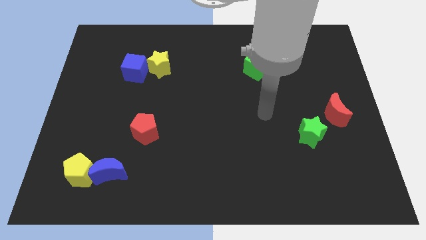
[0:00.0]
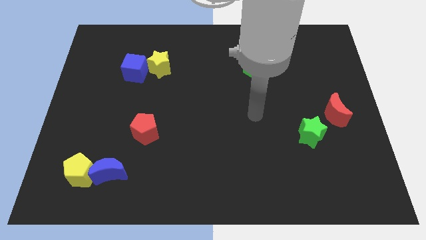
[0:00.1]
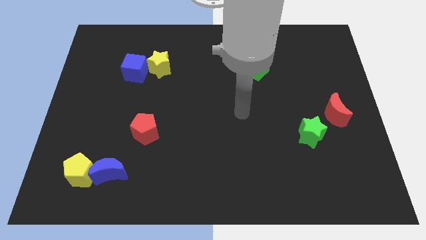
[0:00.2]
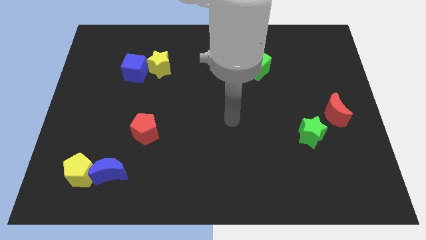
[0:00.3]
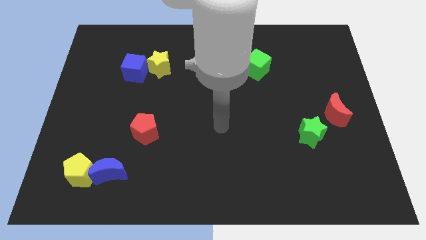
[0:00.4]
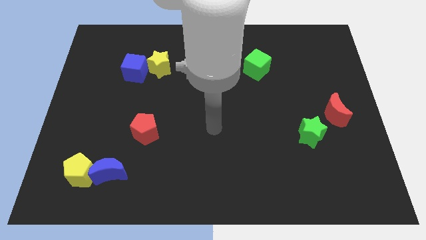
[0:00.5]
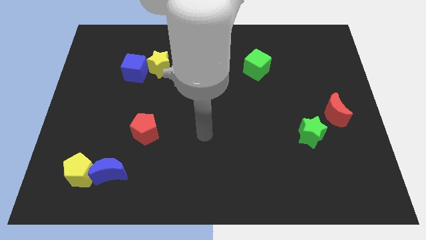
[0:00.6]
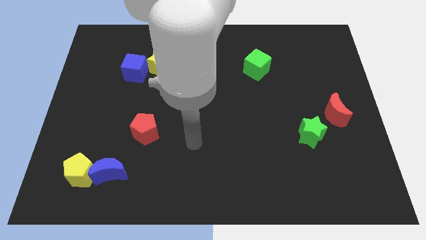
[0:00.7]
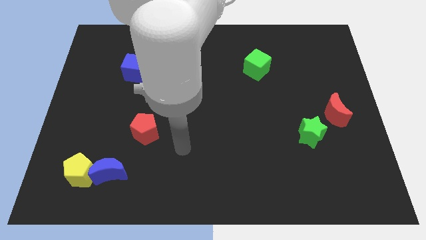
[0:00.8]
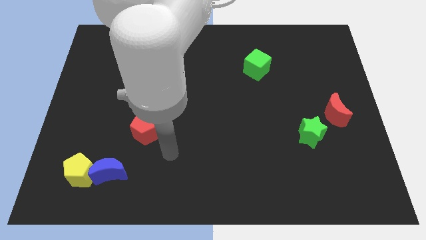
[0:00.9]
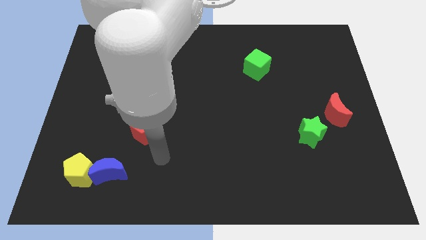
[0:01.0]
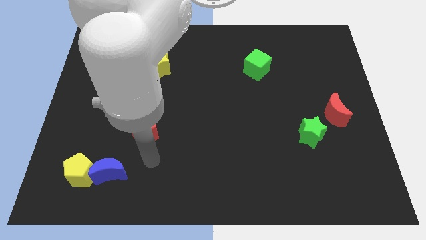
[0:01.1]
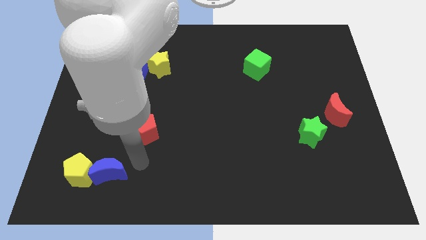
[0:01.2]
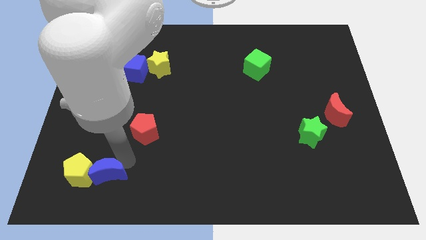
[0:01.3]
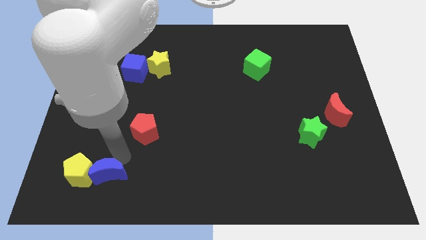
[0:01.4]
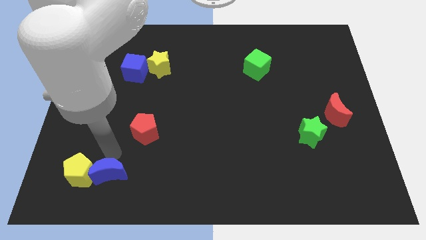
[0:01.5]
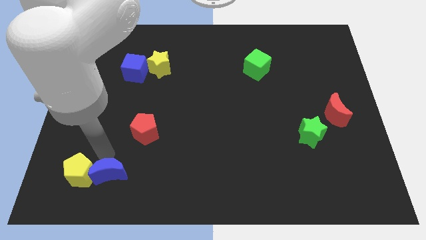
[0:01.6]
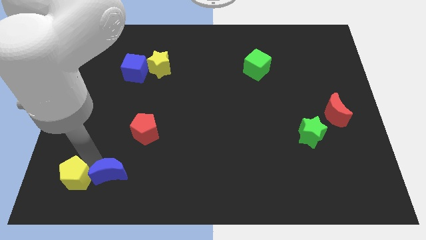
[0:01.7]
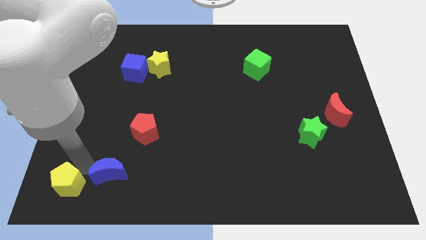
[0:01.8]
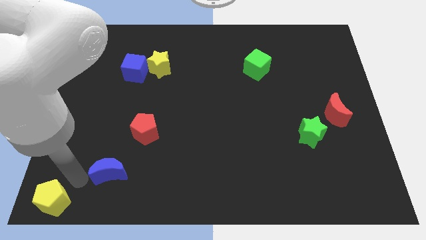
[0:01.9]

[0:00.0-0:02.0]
separate the blue moon from the yellow pentagon

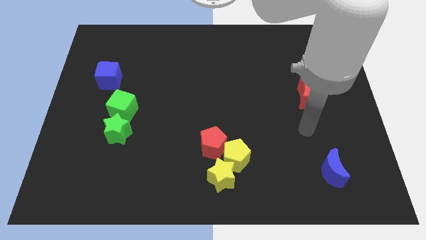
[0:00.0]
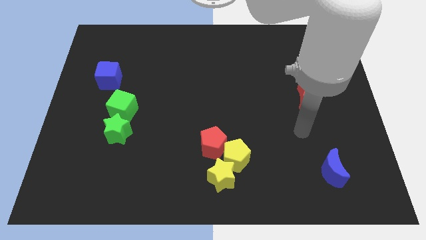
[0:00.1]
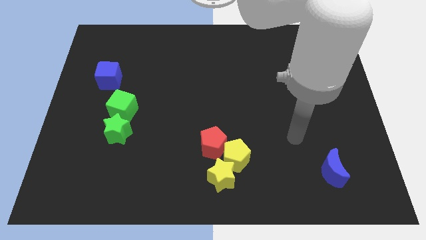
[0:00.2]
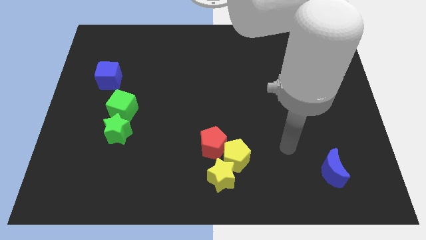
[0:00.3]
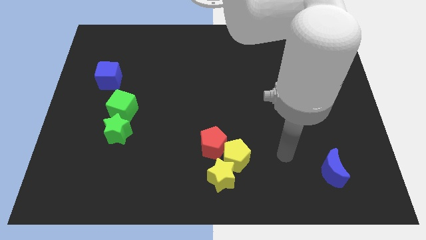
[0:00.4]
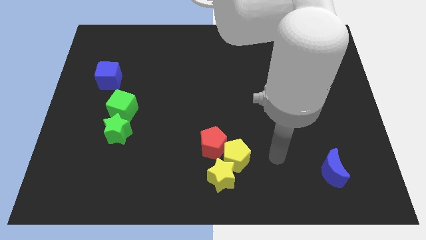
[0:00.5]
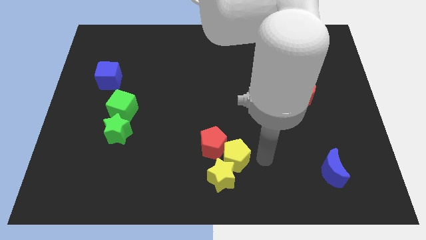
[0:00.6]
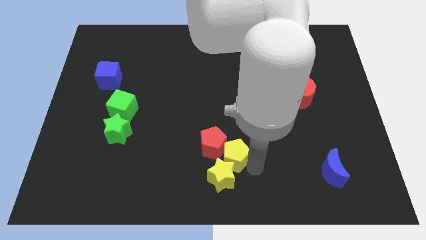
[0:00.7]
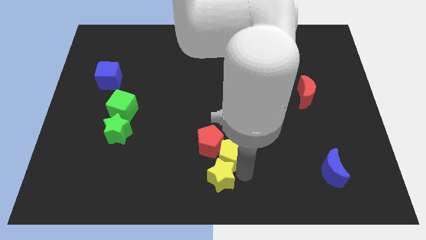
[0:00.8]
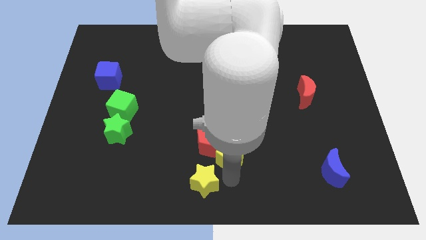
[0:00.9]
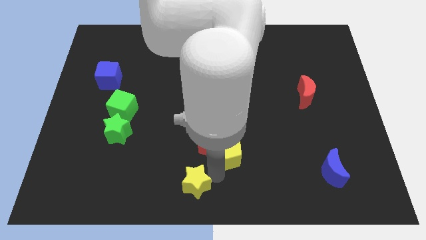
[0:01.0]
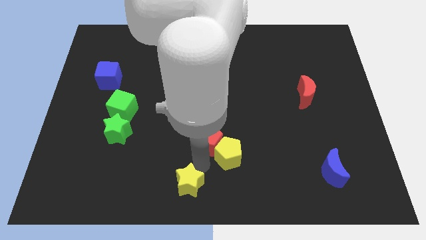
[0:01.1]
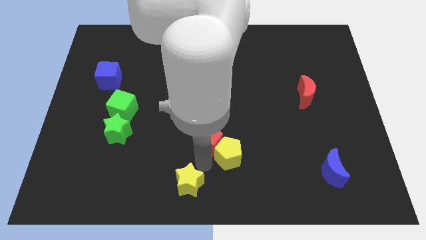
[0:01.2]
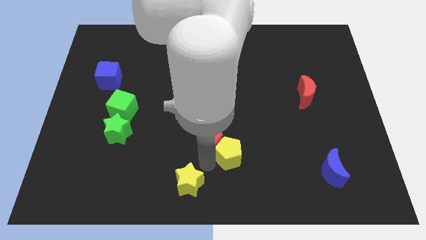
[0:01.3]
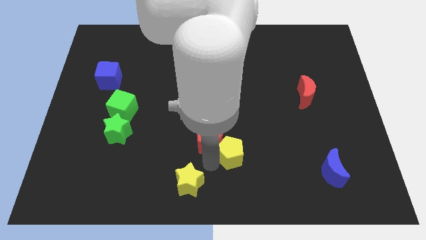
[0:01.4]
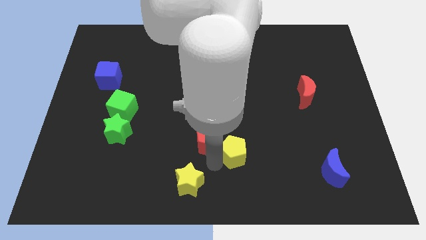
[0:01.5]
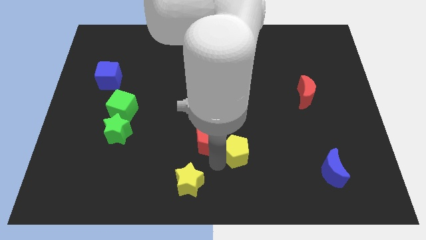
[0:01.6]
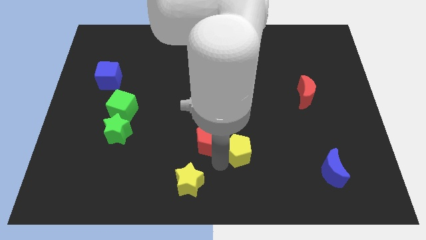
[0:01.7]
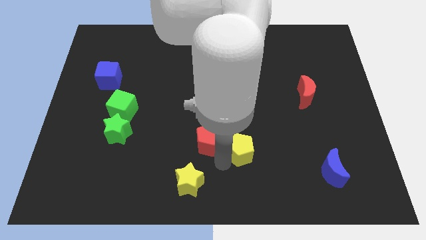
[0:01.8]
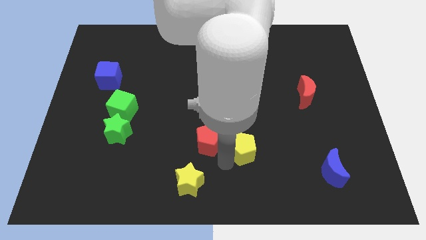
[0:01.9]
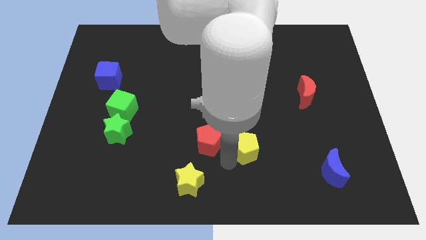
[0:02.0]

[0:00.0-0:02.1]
pull the yellow pentagon apart from the red pentagon and yellow star

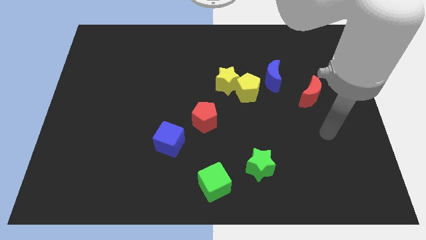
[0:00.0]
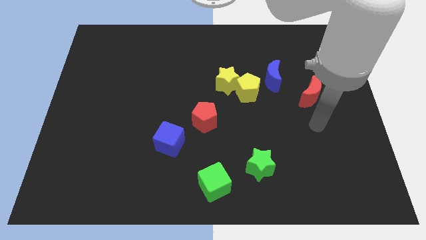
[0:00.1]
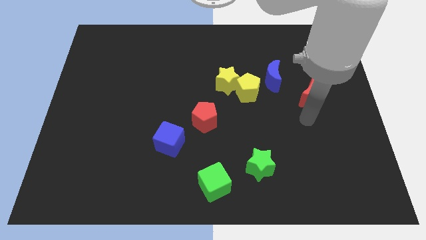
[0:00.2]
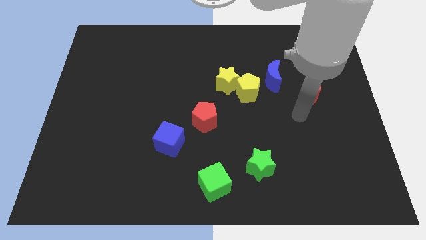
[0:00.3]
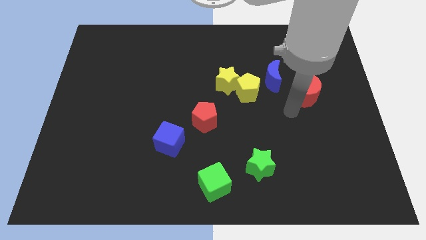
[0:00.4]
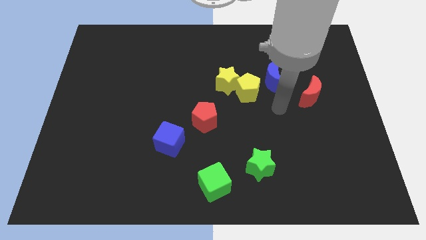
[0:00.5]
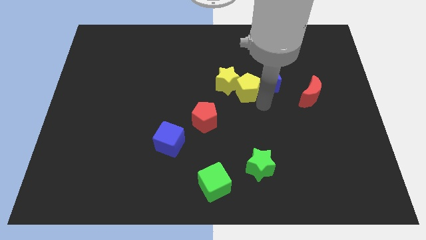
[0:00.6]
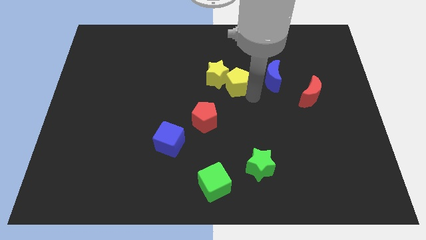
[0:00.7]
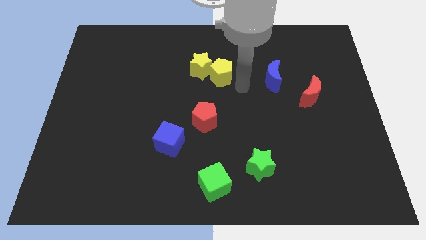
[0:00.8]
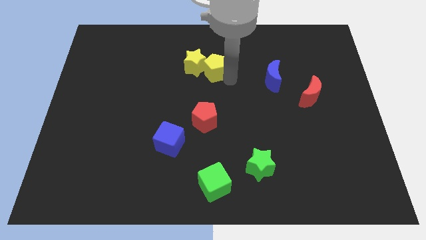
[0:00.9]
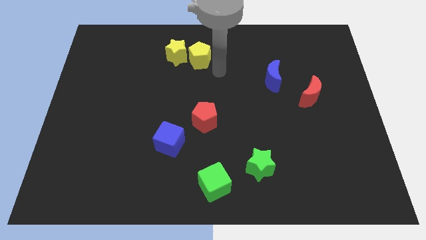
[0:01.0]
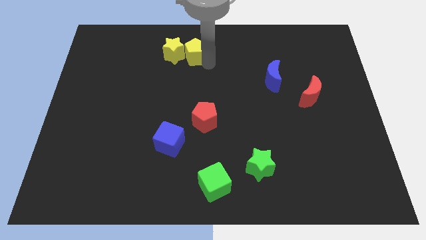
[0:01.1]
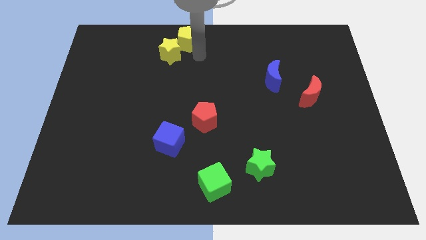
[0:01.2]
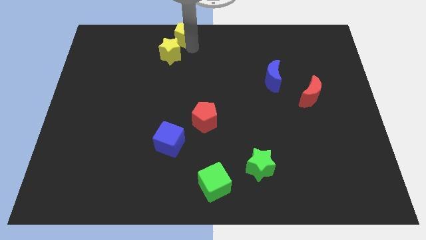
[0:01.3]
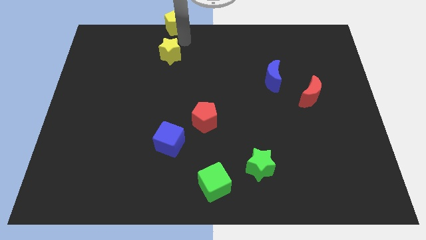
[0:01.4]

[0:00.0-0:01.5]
move the yellow star away from the yellow pentagon

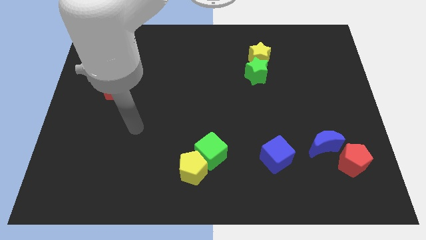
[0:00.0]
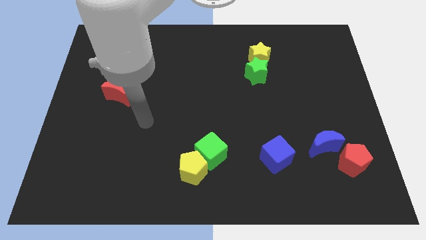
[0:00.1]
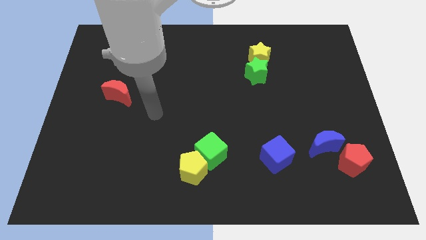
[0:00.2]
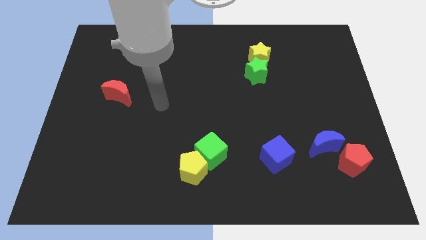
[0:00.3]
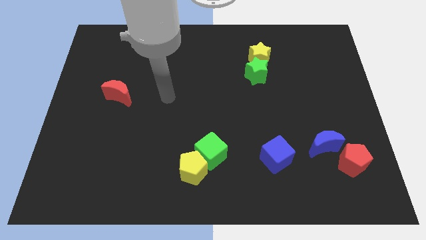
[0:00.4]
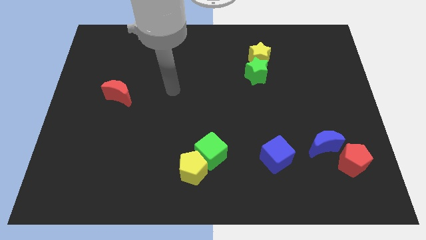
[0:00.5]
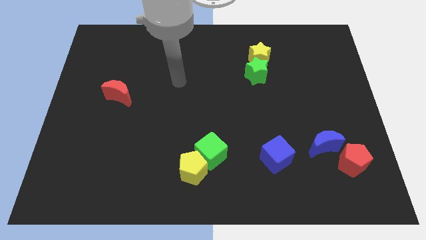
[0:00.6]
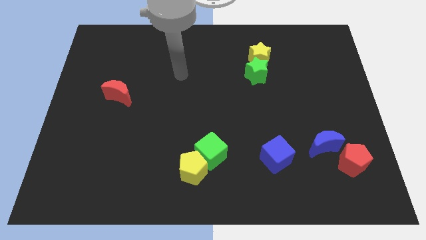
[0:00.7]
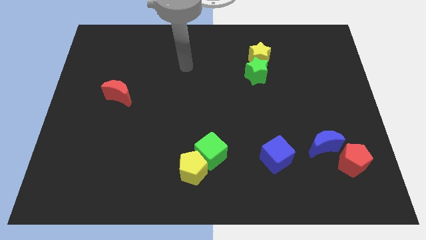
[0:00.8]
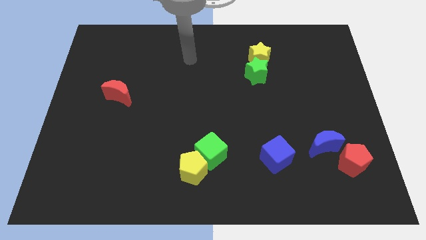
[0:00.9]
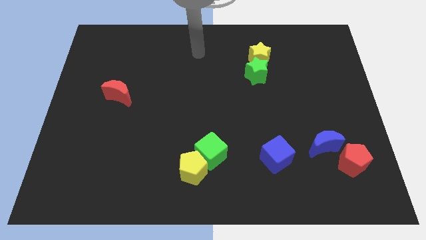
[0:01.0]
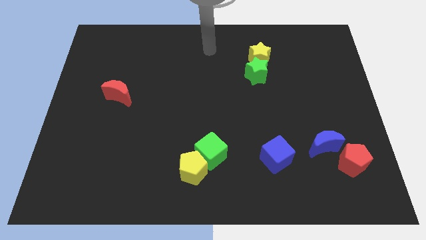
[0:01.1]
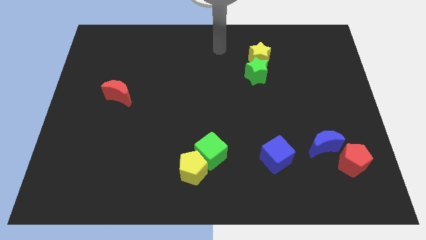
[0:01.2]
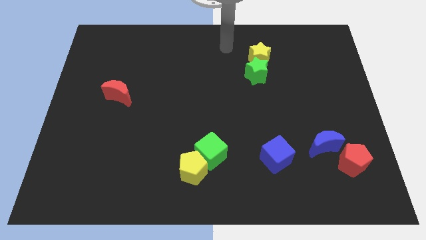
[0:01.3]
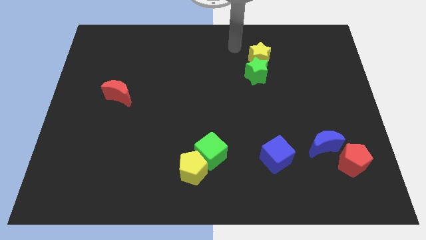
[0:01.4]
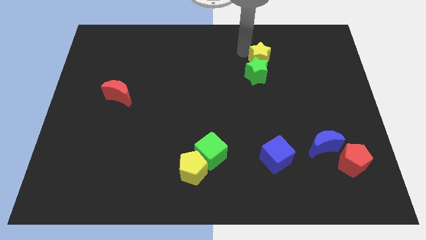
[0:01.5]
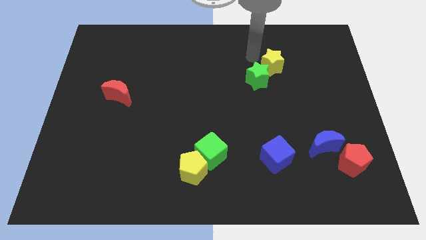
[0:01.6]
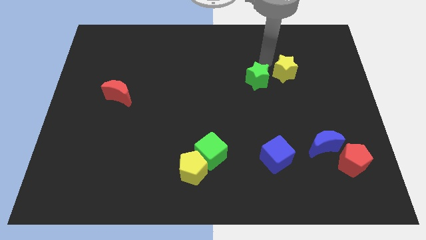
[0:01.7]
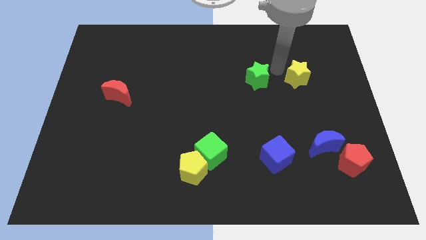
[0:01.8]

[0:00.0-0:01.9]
pull the green star apart from the yellow star

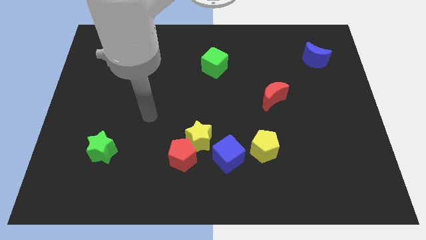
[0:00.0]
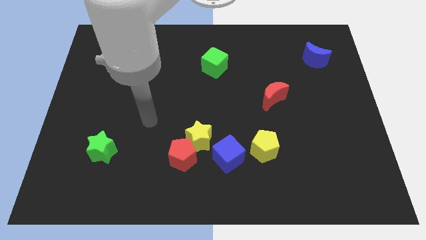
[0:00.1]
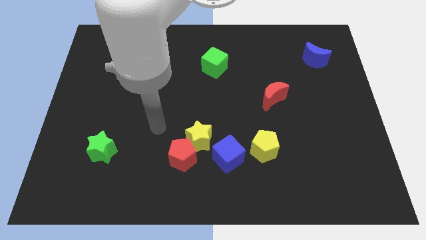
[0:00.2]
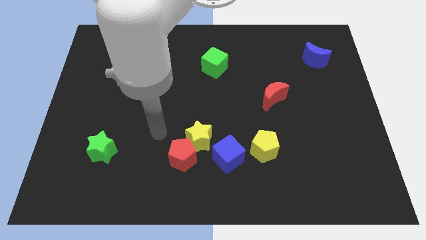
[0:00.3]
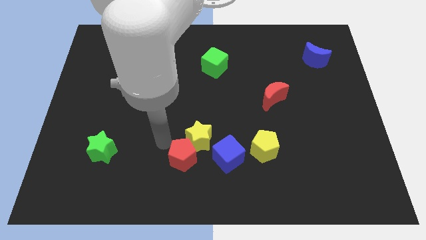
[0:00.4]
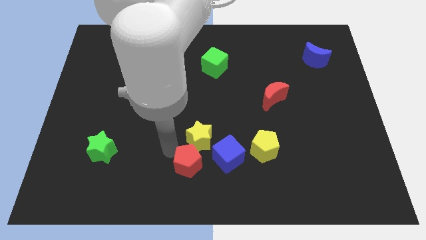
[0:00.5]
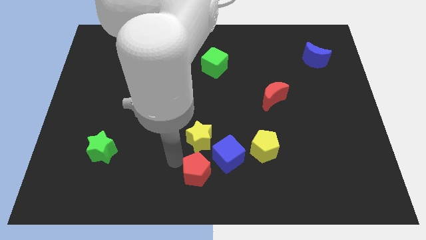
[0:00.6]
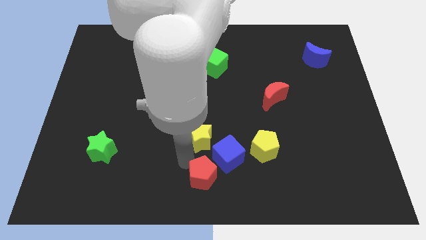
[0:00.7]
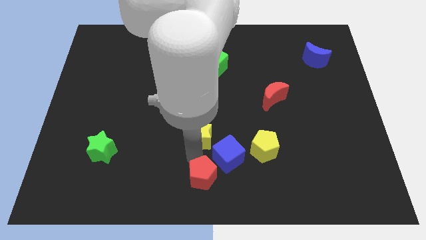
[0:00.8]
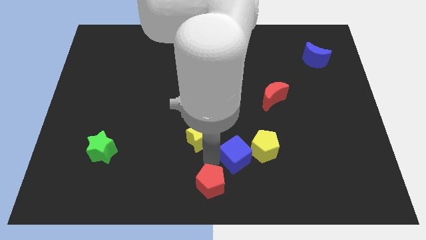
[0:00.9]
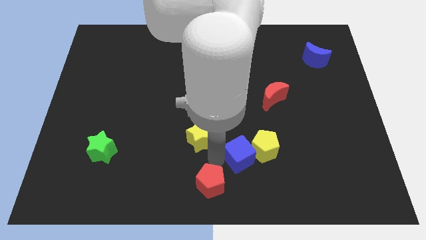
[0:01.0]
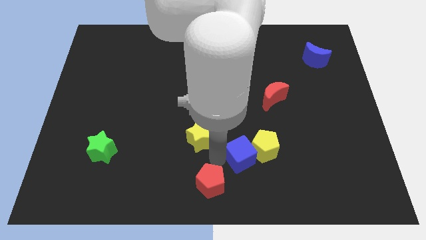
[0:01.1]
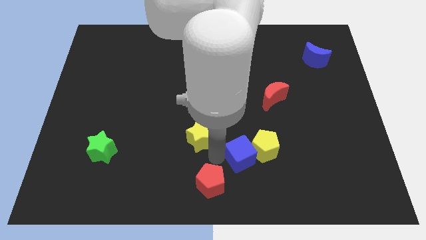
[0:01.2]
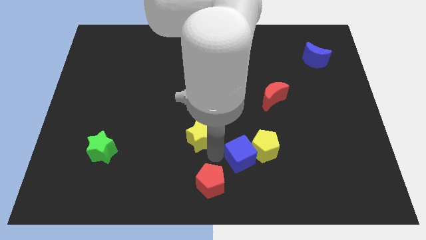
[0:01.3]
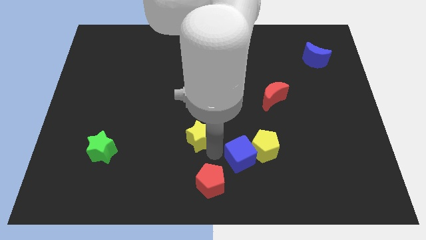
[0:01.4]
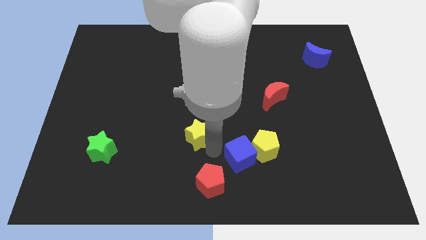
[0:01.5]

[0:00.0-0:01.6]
pull the yellow star apart from the red pentagon and blue cube

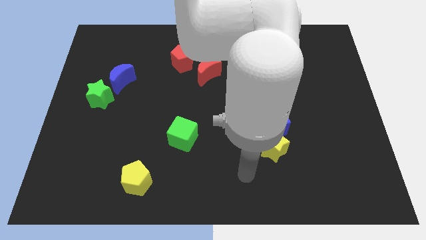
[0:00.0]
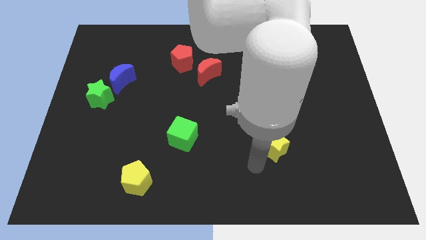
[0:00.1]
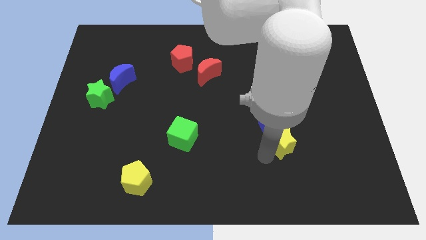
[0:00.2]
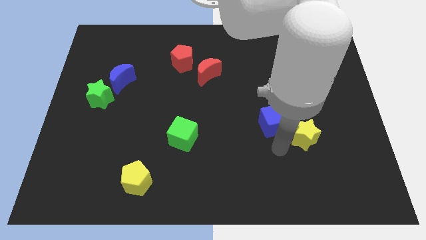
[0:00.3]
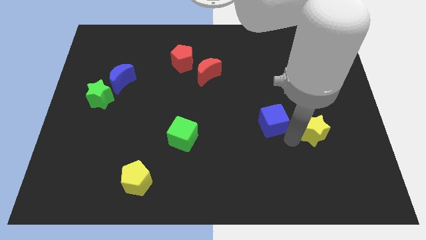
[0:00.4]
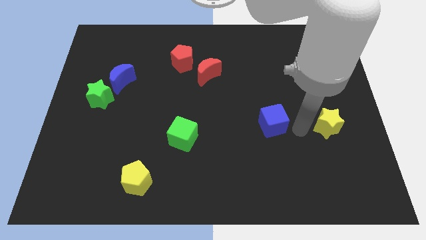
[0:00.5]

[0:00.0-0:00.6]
move the blue cube away from the yellow star
